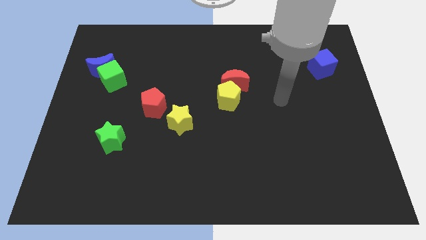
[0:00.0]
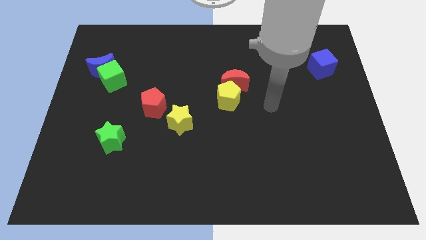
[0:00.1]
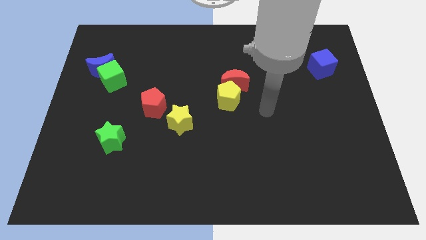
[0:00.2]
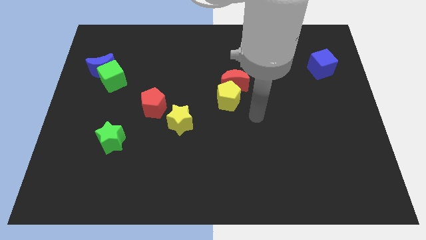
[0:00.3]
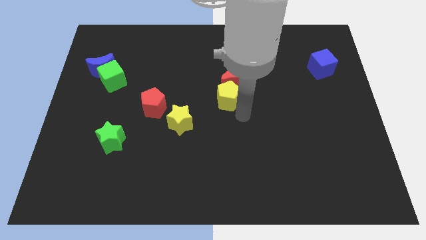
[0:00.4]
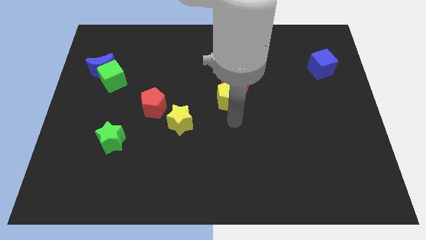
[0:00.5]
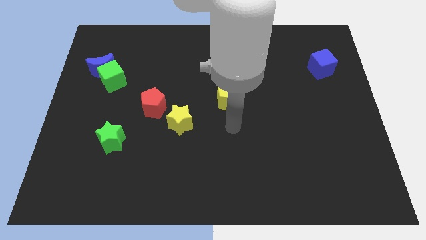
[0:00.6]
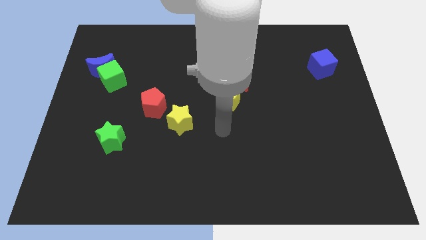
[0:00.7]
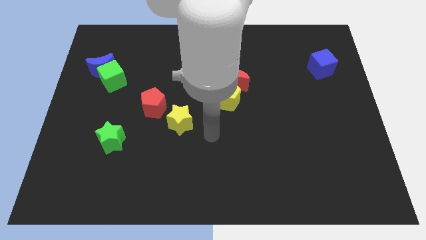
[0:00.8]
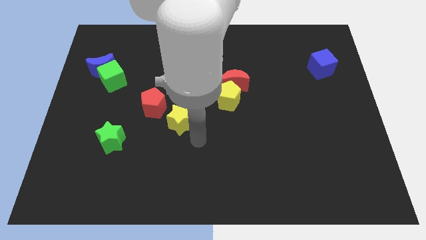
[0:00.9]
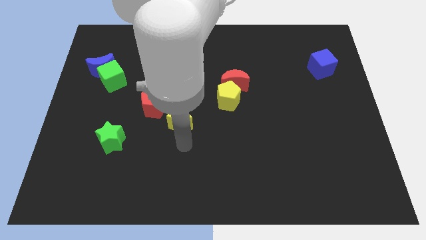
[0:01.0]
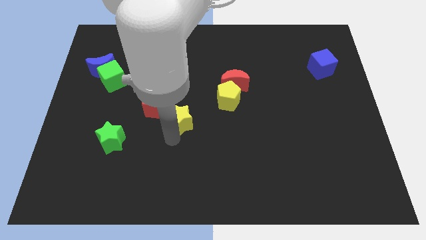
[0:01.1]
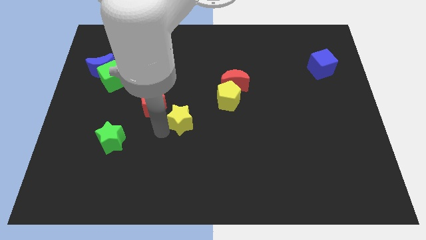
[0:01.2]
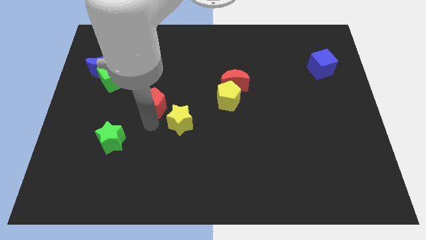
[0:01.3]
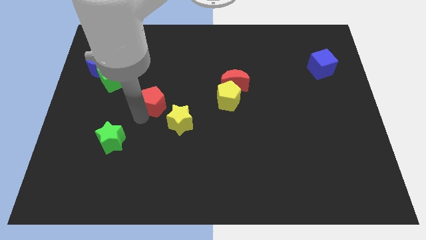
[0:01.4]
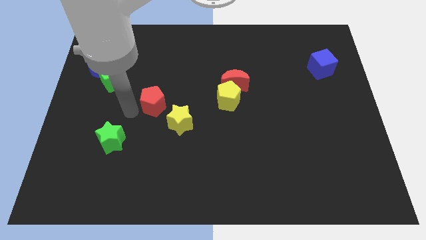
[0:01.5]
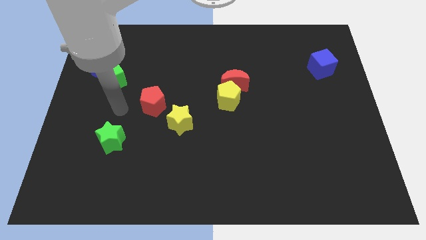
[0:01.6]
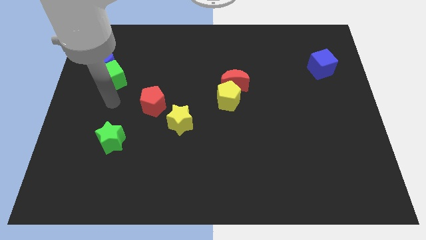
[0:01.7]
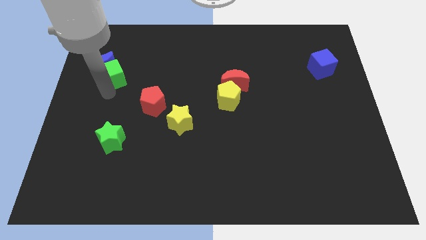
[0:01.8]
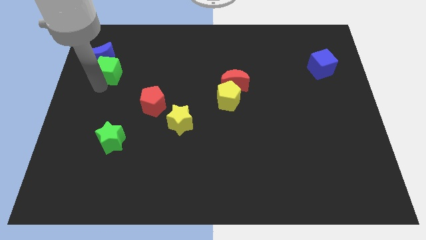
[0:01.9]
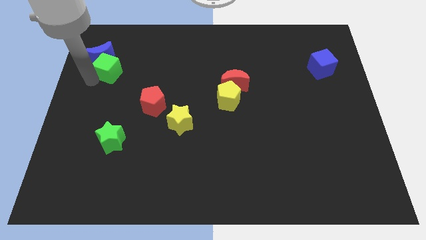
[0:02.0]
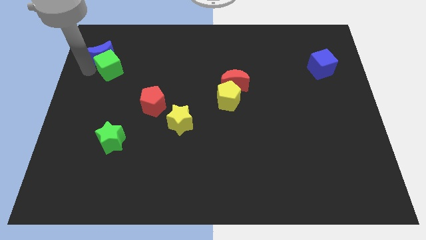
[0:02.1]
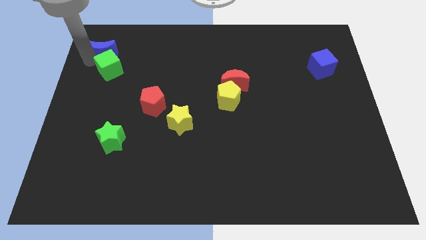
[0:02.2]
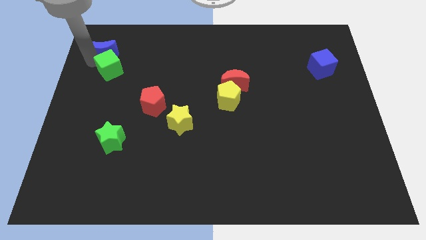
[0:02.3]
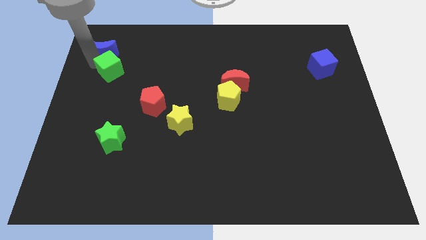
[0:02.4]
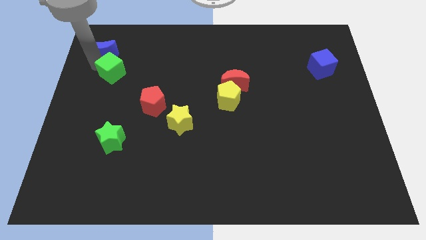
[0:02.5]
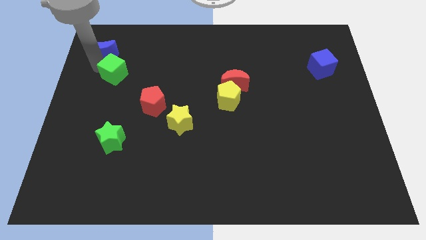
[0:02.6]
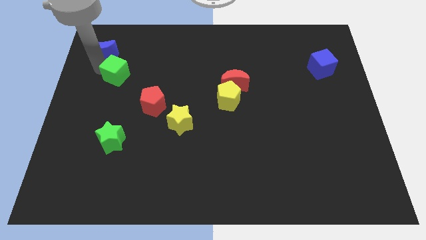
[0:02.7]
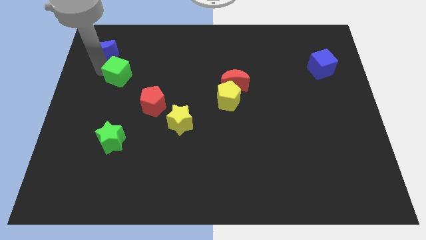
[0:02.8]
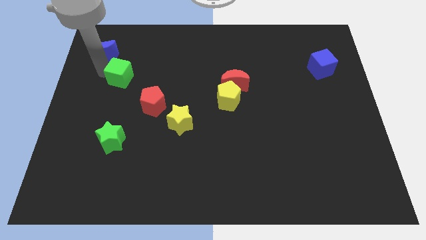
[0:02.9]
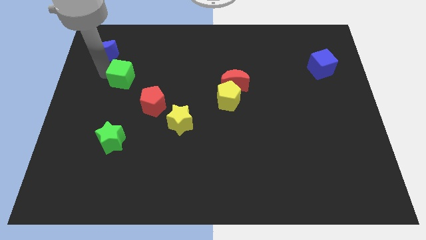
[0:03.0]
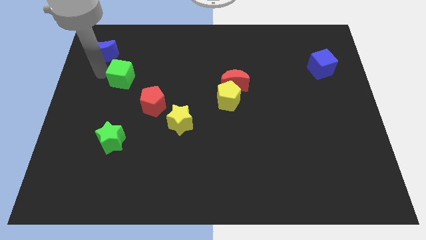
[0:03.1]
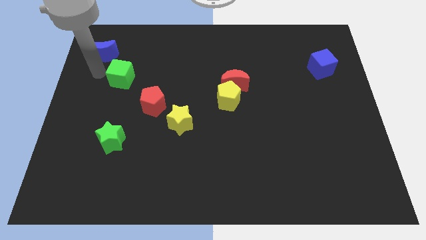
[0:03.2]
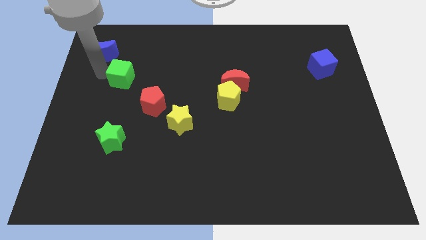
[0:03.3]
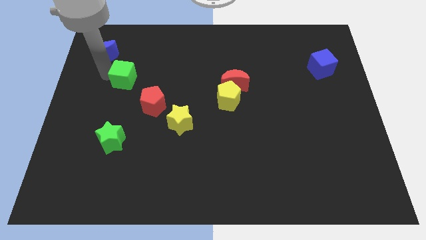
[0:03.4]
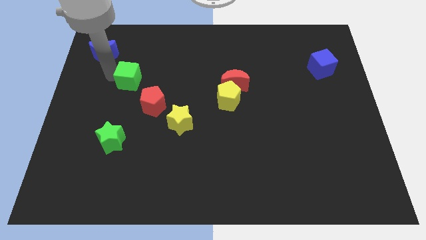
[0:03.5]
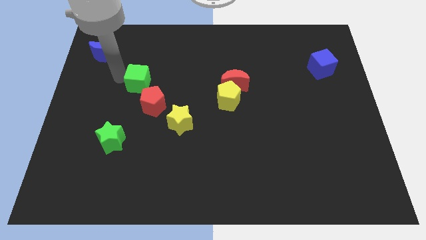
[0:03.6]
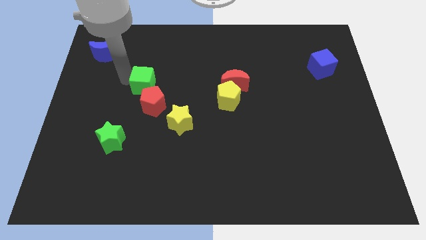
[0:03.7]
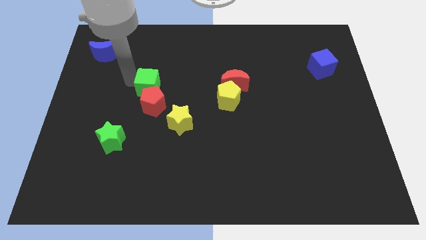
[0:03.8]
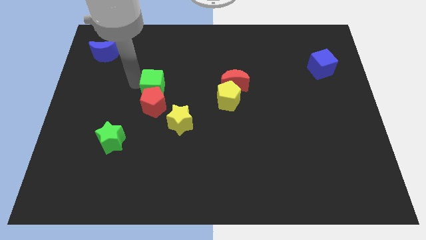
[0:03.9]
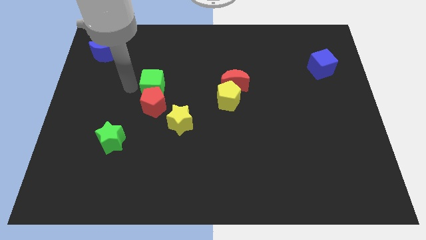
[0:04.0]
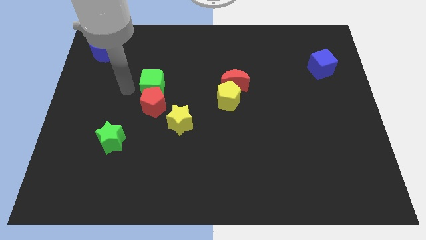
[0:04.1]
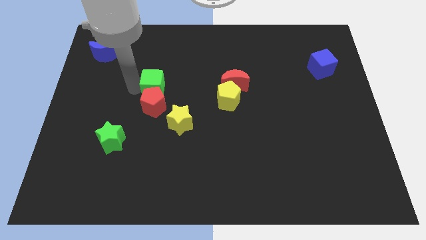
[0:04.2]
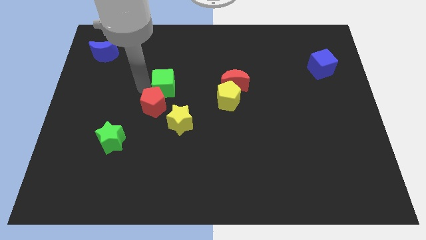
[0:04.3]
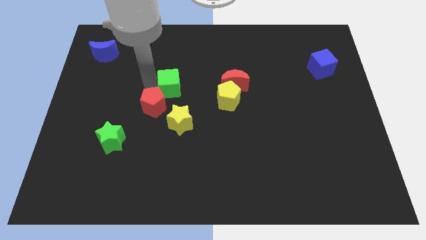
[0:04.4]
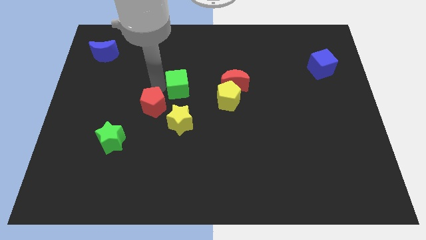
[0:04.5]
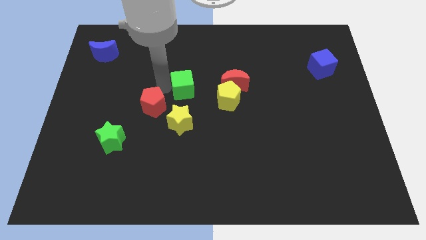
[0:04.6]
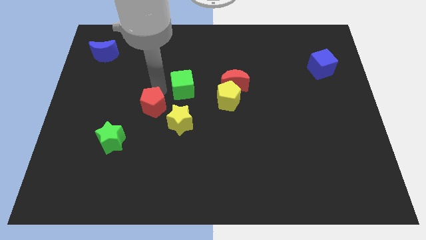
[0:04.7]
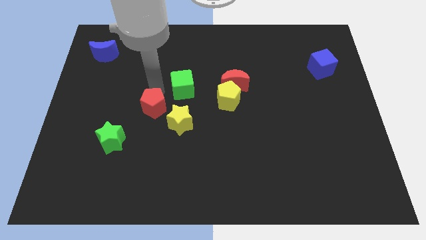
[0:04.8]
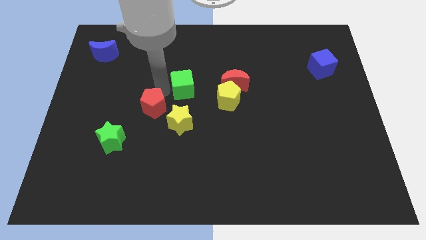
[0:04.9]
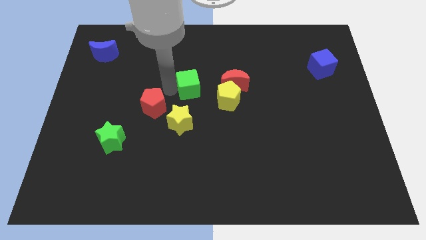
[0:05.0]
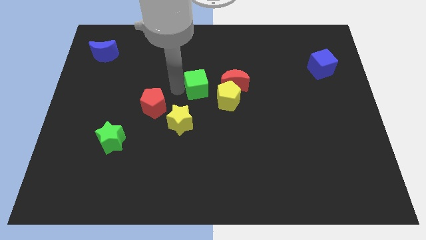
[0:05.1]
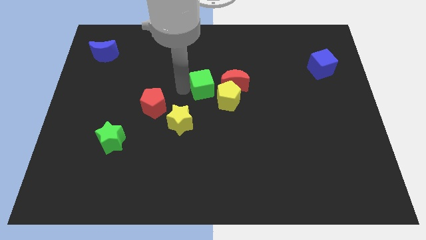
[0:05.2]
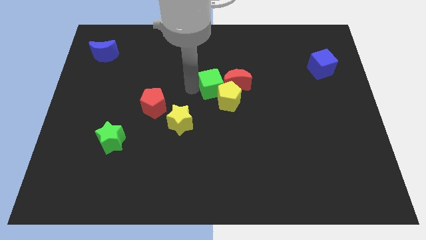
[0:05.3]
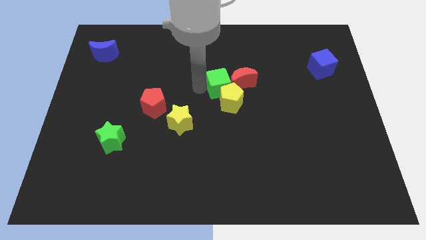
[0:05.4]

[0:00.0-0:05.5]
move the green cube to the red moon

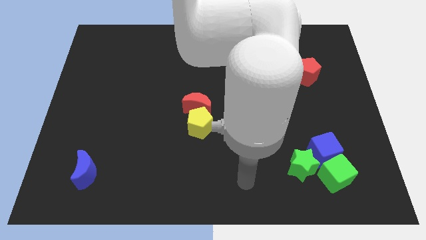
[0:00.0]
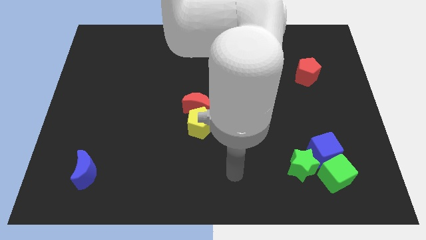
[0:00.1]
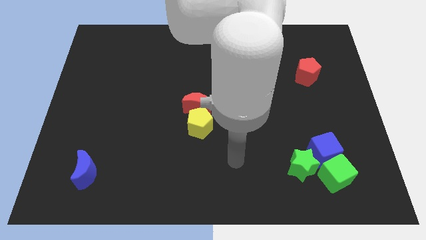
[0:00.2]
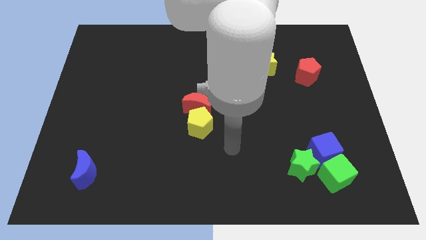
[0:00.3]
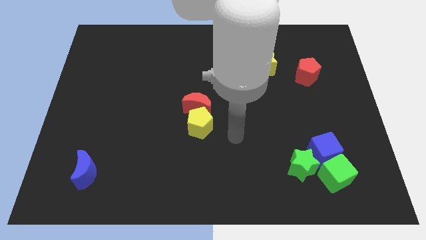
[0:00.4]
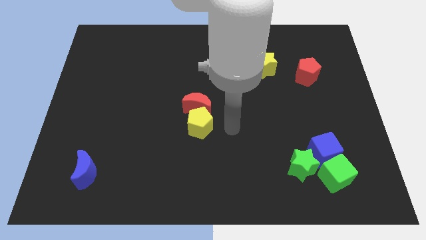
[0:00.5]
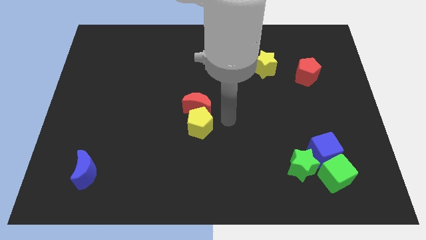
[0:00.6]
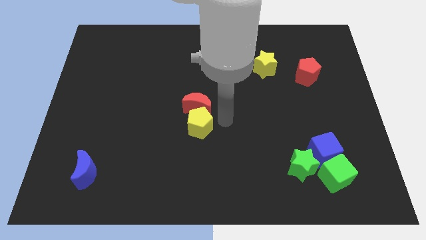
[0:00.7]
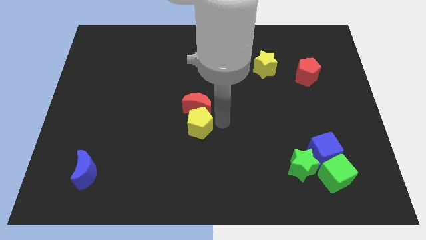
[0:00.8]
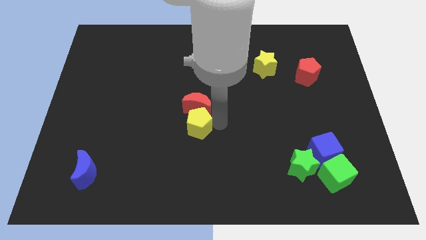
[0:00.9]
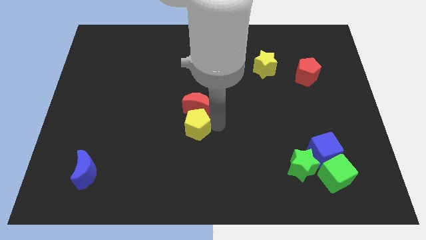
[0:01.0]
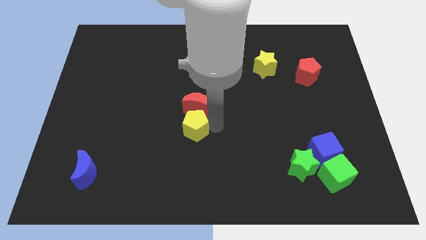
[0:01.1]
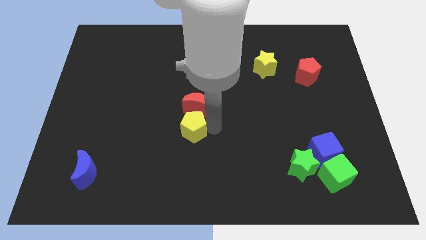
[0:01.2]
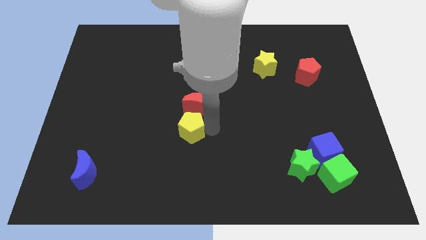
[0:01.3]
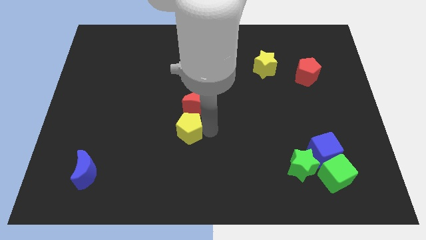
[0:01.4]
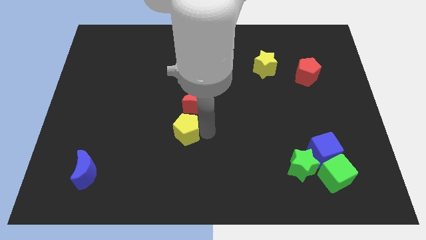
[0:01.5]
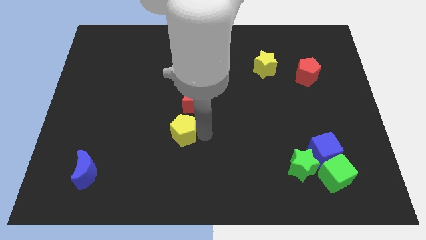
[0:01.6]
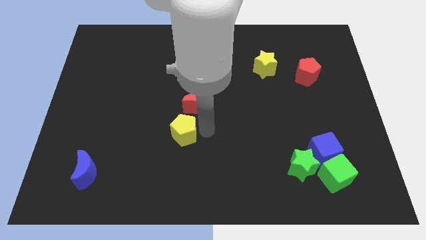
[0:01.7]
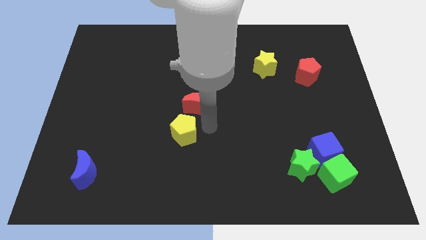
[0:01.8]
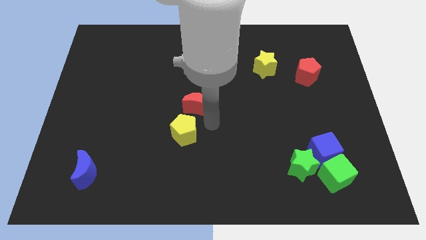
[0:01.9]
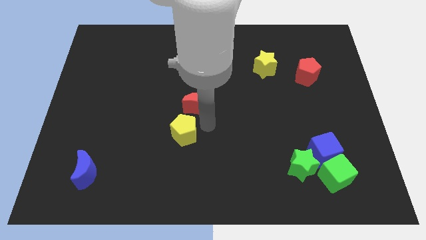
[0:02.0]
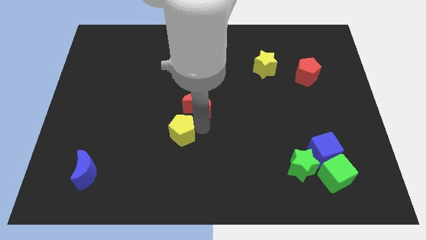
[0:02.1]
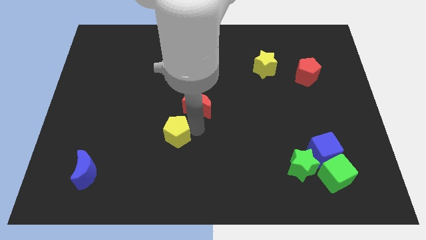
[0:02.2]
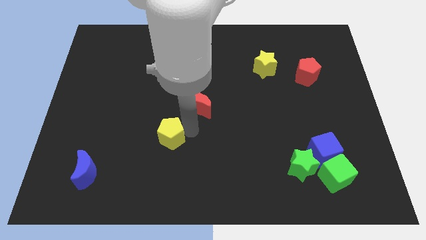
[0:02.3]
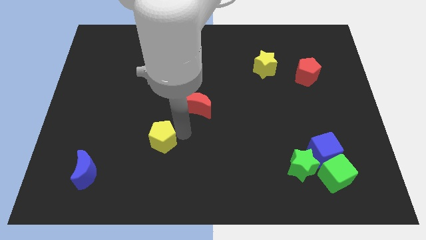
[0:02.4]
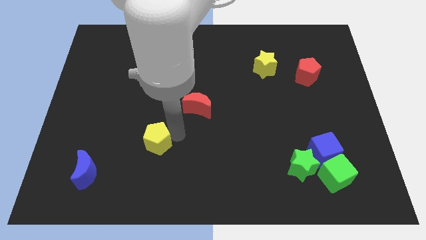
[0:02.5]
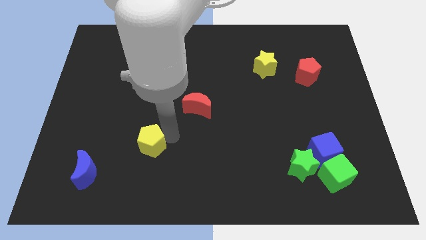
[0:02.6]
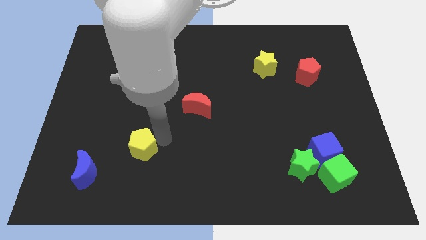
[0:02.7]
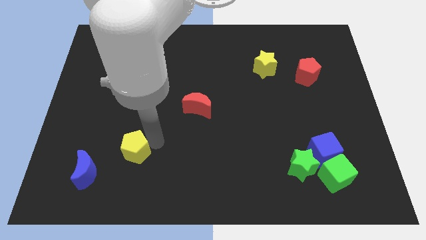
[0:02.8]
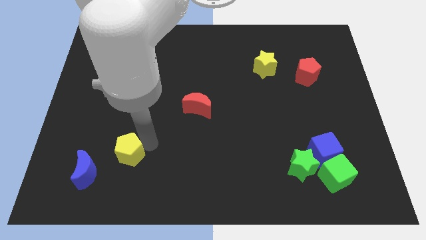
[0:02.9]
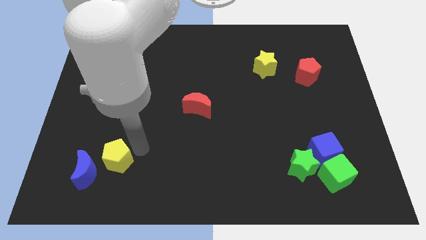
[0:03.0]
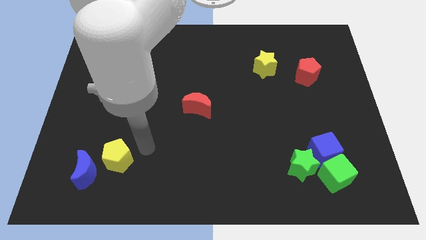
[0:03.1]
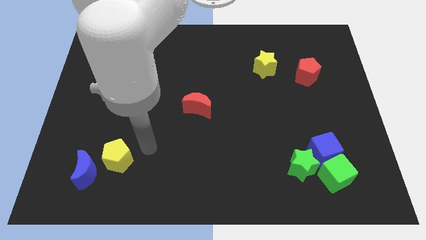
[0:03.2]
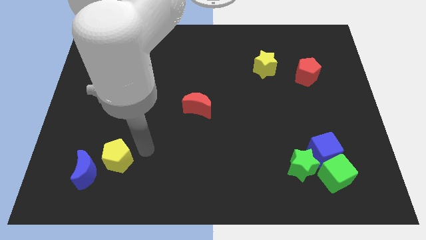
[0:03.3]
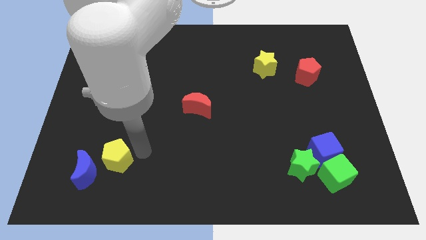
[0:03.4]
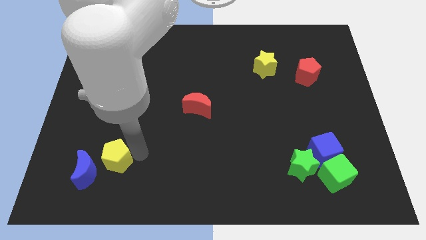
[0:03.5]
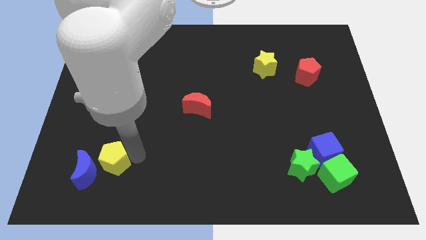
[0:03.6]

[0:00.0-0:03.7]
push the yellow pentagon next to the blue moon
